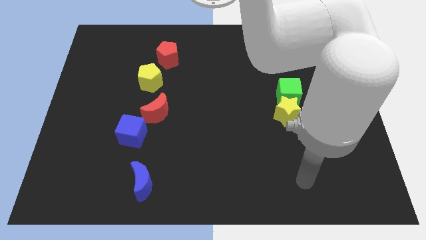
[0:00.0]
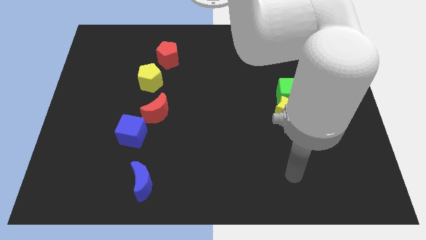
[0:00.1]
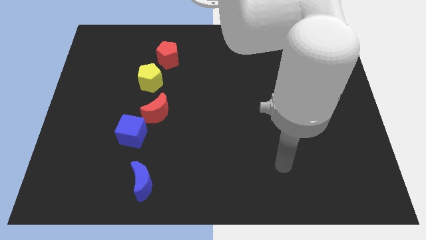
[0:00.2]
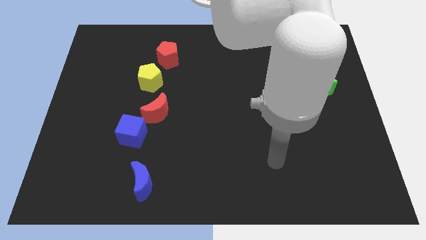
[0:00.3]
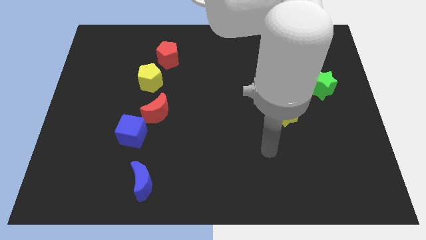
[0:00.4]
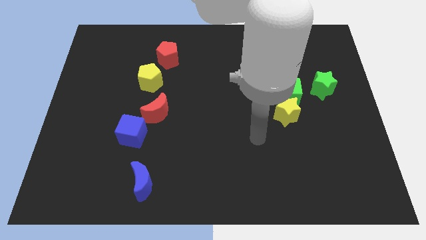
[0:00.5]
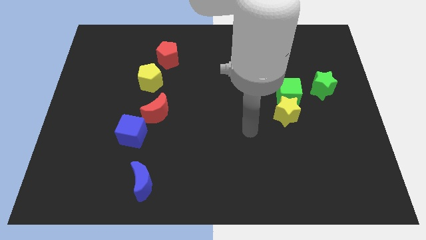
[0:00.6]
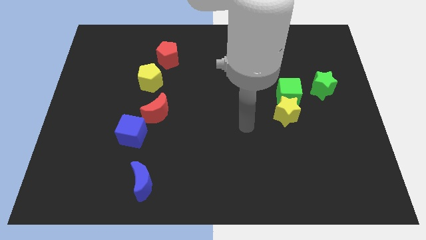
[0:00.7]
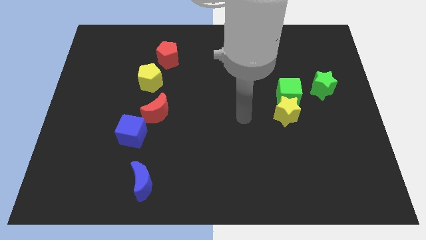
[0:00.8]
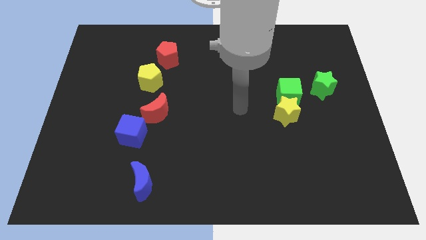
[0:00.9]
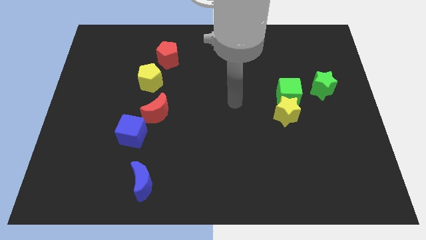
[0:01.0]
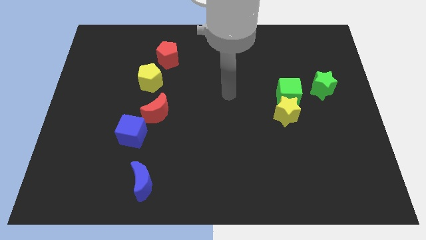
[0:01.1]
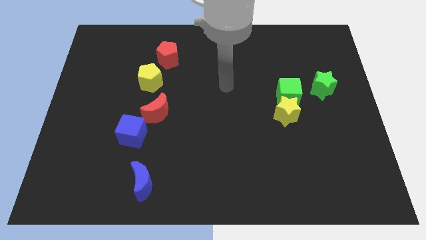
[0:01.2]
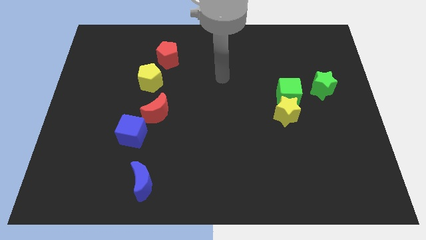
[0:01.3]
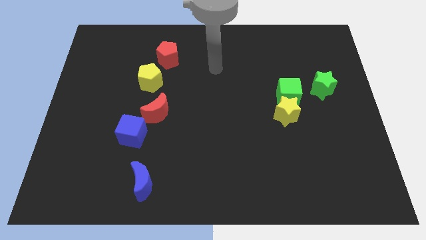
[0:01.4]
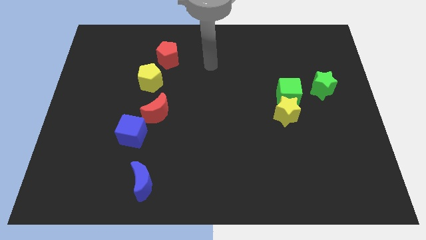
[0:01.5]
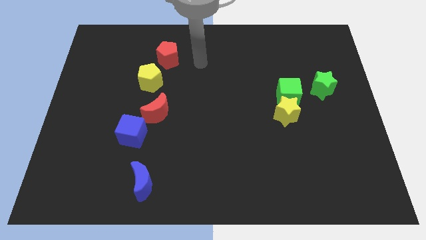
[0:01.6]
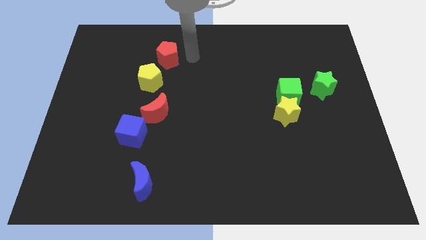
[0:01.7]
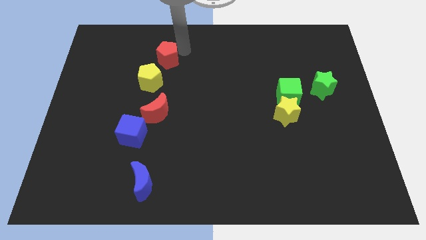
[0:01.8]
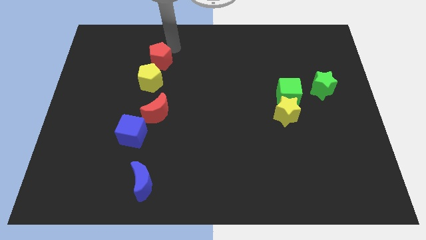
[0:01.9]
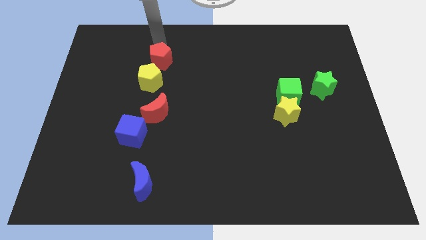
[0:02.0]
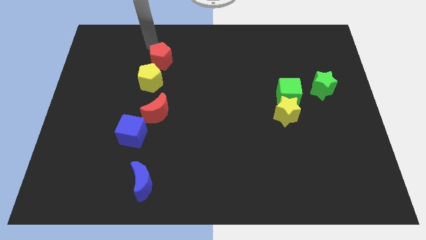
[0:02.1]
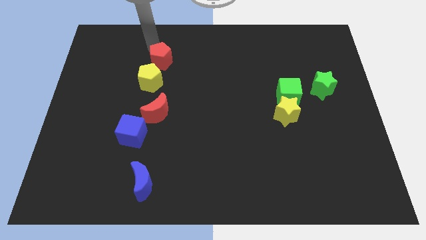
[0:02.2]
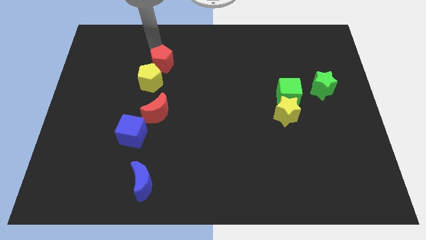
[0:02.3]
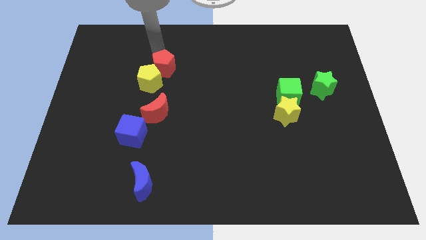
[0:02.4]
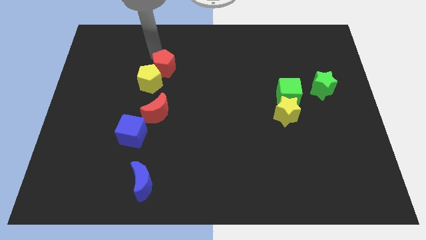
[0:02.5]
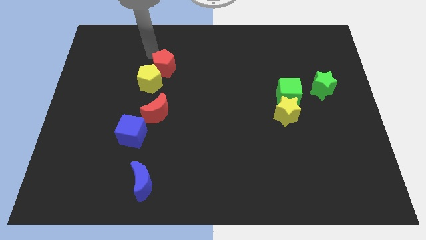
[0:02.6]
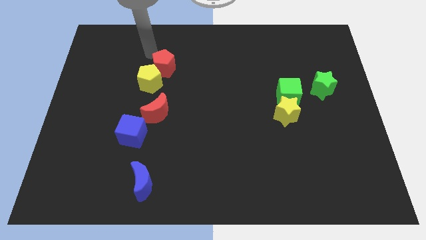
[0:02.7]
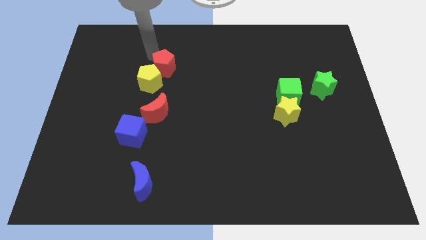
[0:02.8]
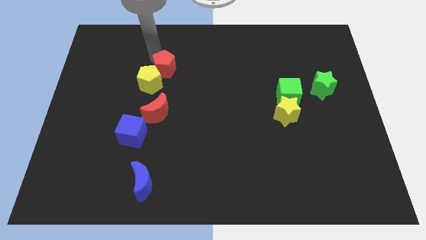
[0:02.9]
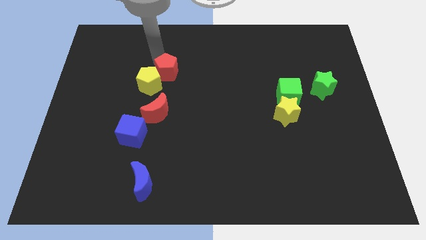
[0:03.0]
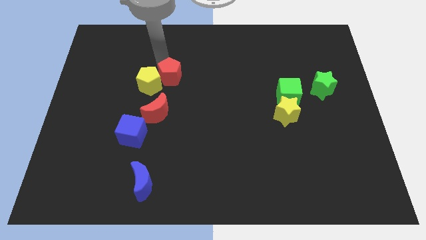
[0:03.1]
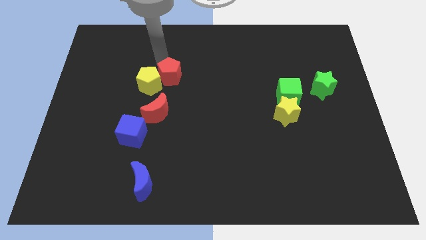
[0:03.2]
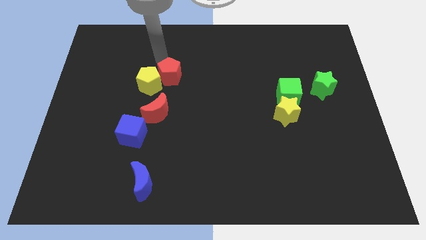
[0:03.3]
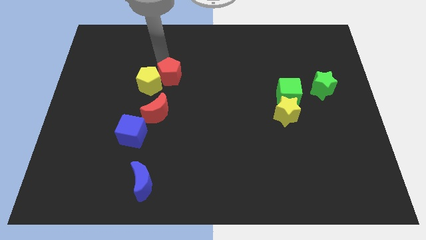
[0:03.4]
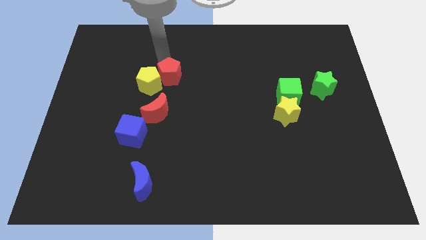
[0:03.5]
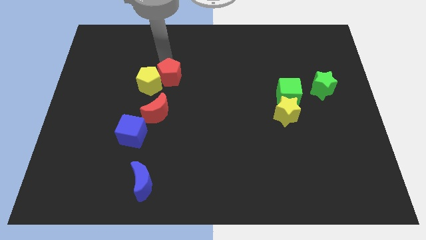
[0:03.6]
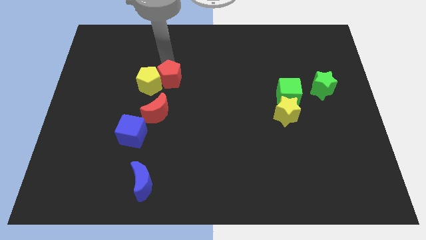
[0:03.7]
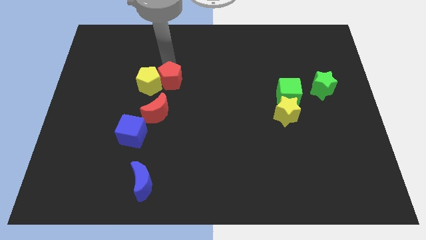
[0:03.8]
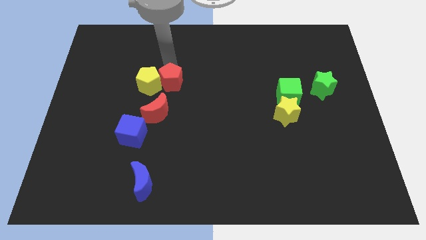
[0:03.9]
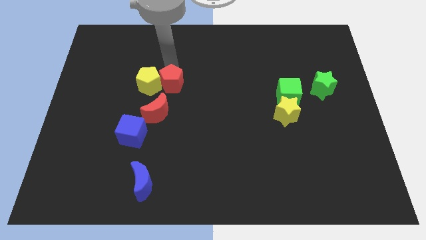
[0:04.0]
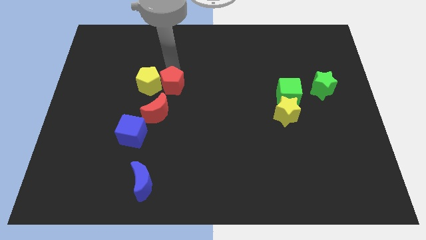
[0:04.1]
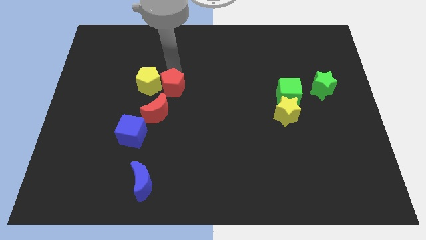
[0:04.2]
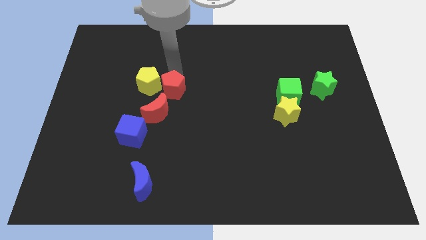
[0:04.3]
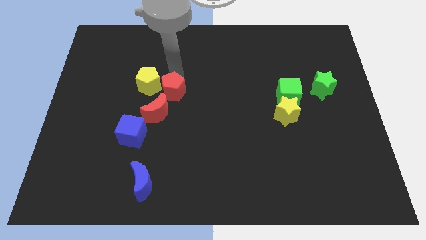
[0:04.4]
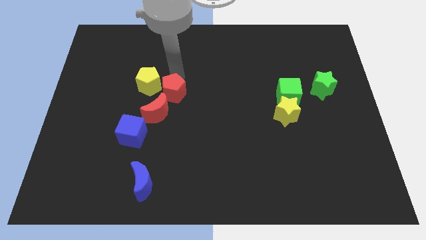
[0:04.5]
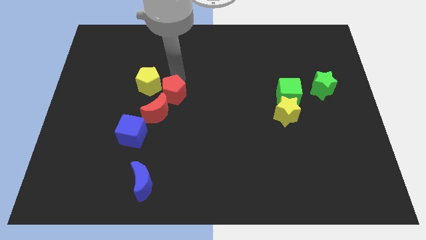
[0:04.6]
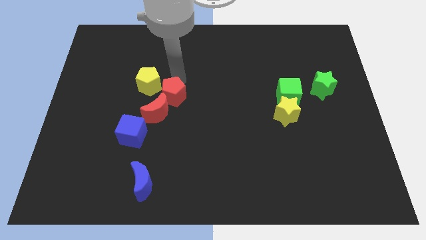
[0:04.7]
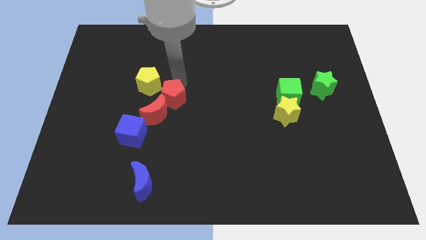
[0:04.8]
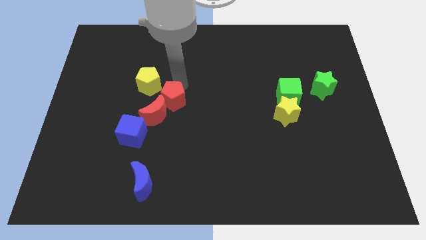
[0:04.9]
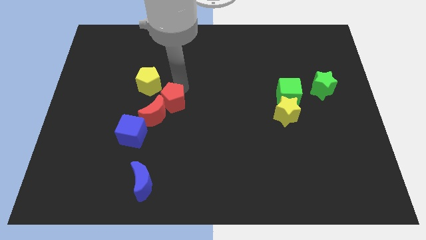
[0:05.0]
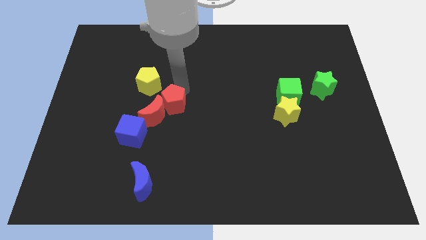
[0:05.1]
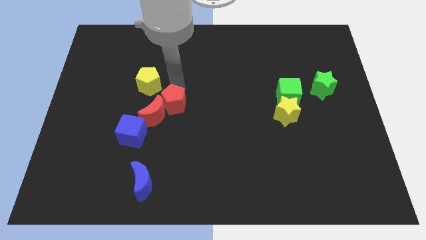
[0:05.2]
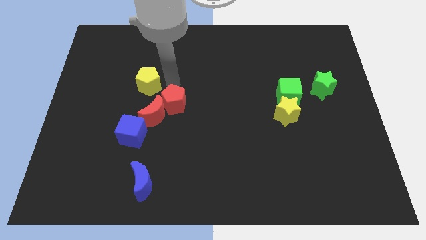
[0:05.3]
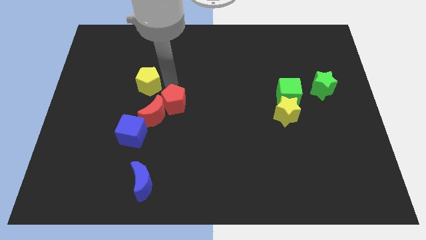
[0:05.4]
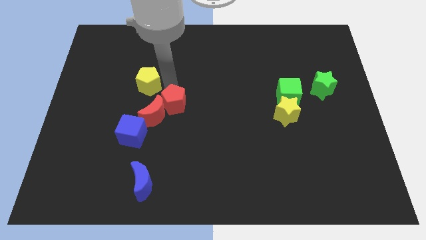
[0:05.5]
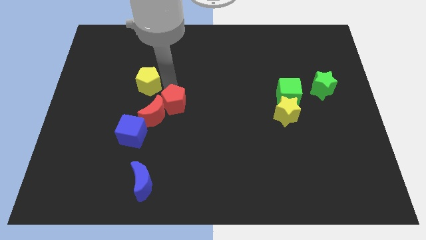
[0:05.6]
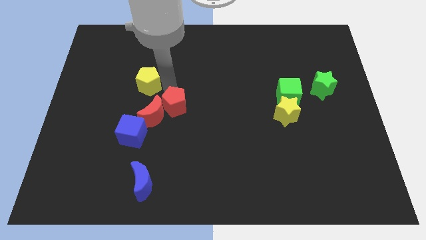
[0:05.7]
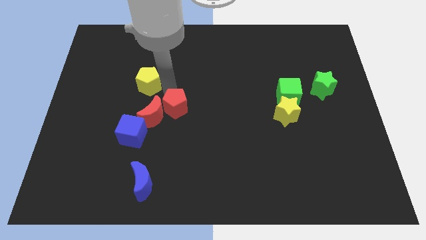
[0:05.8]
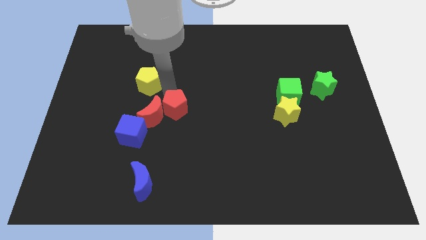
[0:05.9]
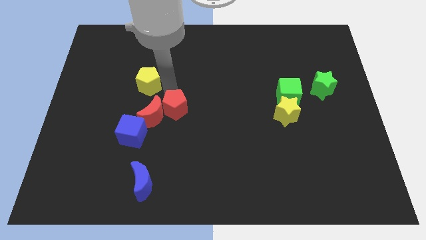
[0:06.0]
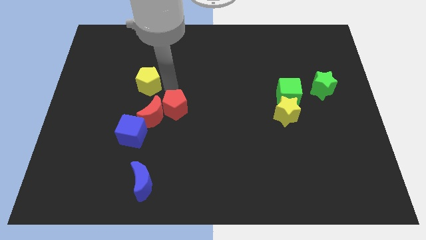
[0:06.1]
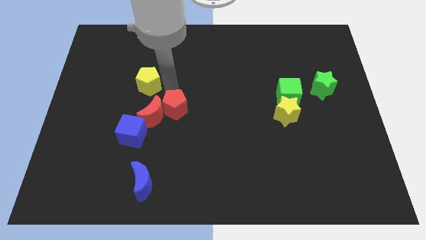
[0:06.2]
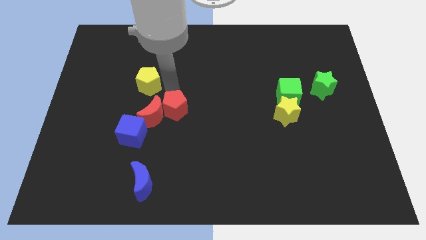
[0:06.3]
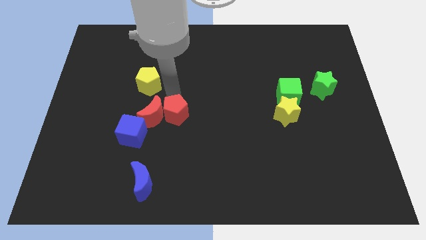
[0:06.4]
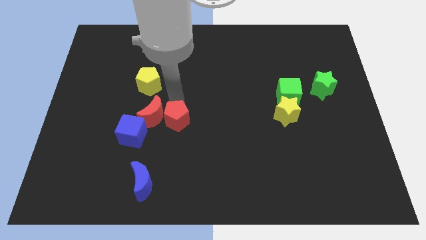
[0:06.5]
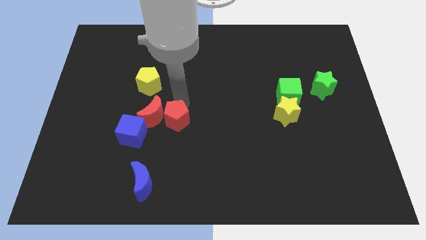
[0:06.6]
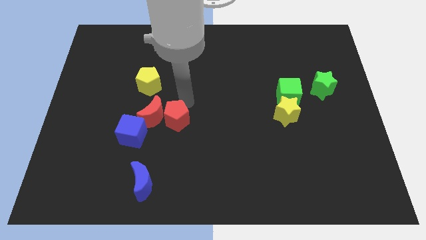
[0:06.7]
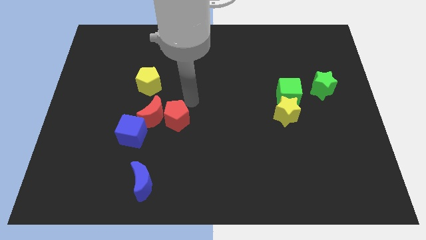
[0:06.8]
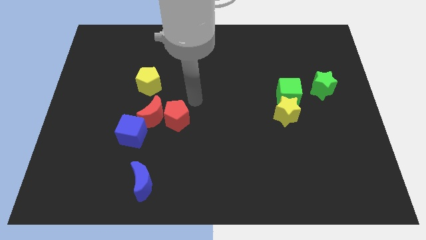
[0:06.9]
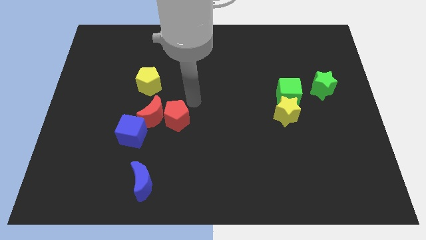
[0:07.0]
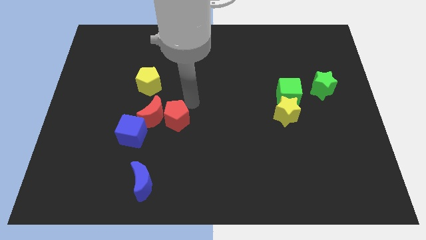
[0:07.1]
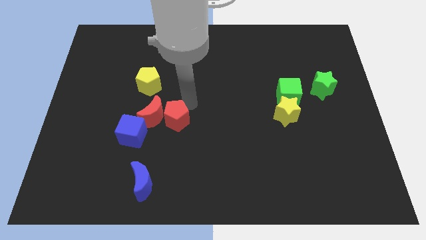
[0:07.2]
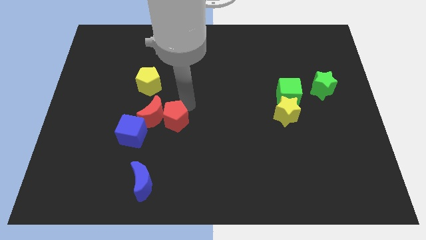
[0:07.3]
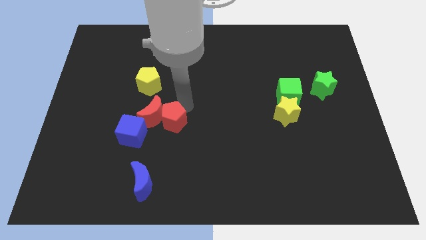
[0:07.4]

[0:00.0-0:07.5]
push the red pentagon downwards

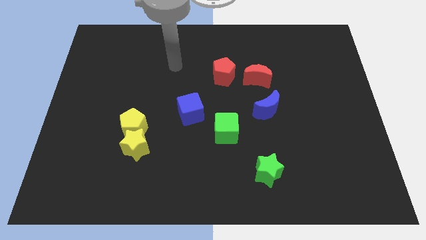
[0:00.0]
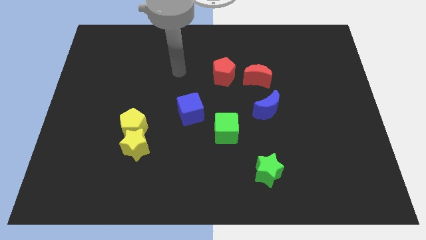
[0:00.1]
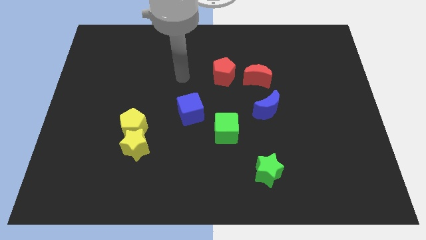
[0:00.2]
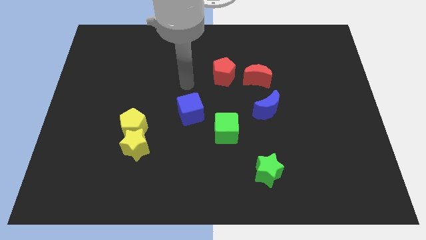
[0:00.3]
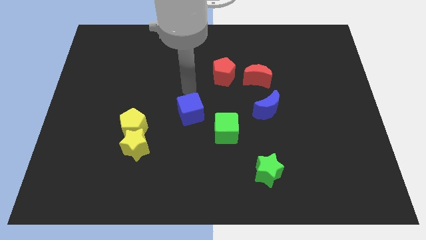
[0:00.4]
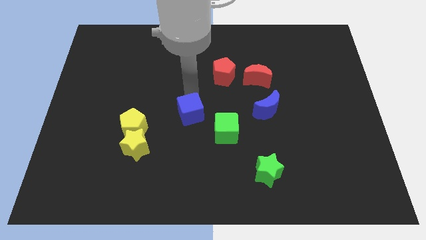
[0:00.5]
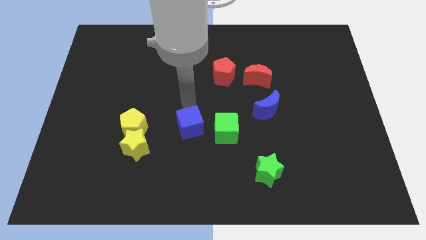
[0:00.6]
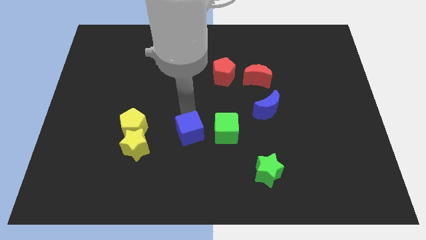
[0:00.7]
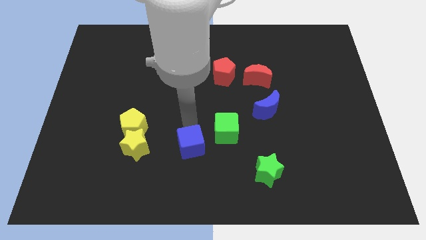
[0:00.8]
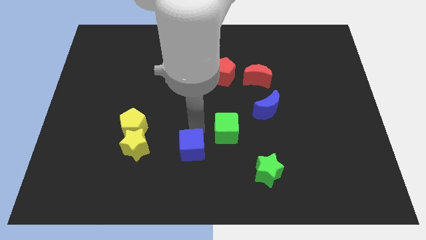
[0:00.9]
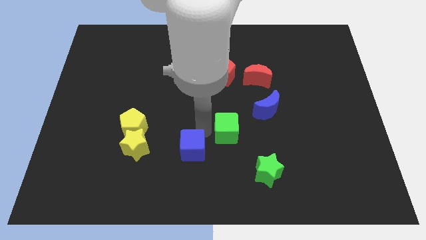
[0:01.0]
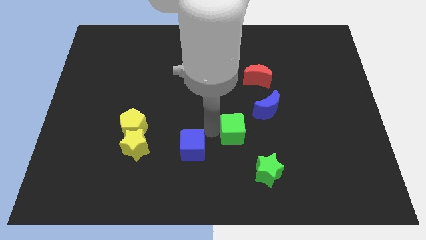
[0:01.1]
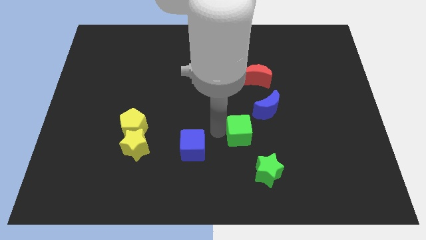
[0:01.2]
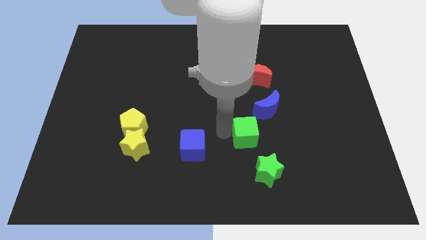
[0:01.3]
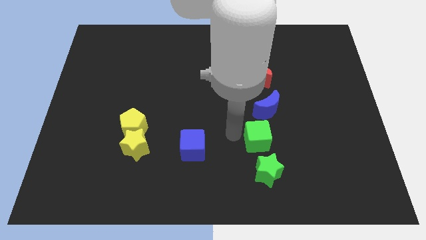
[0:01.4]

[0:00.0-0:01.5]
slightly slide the green cube right
